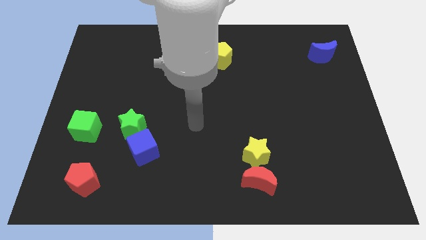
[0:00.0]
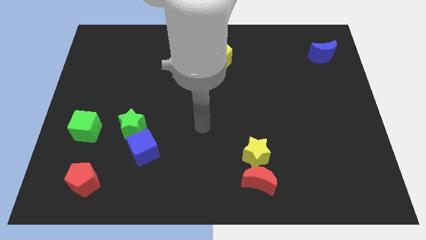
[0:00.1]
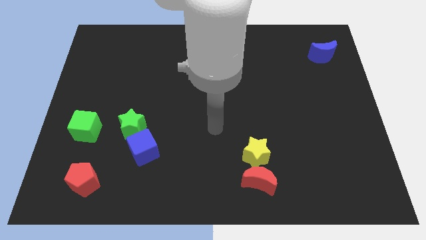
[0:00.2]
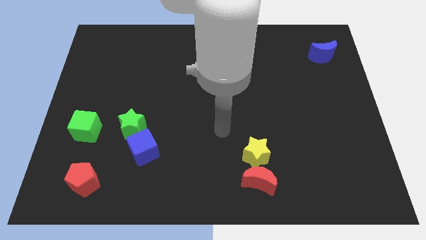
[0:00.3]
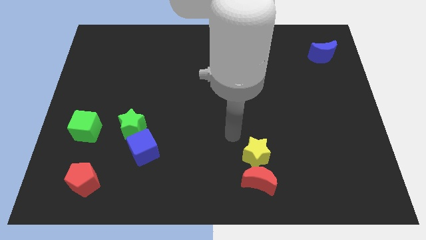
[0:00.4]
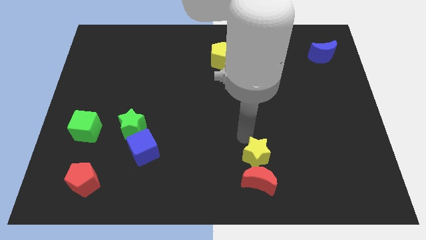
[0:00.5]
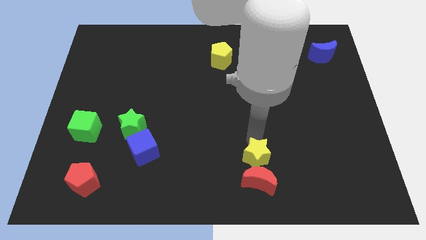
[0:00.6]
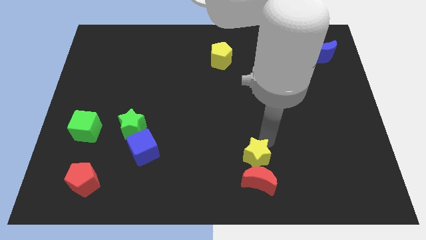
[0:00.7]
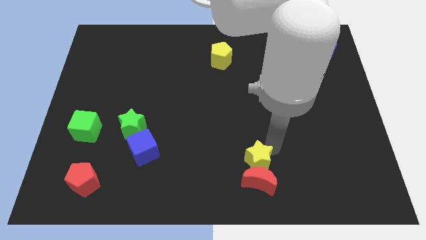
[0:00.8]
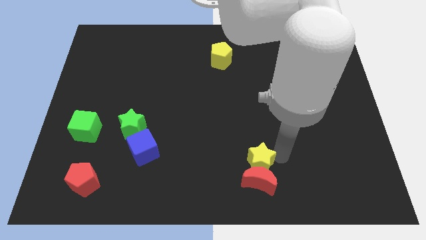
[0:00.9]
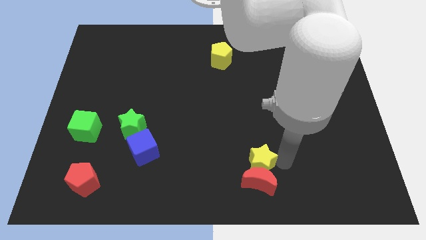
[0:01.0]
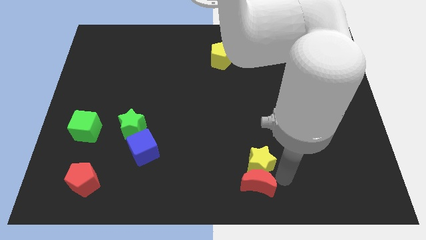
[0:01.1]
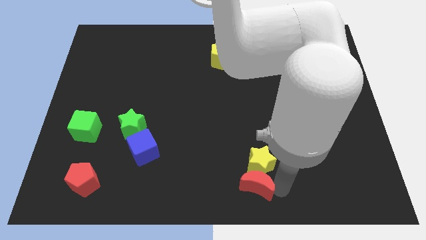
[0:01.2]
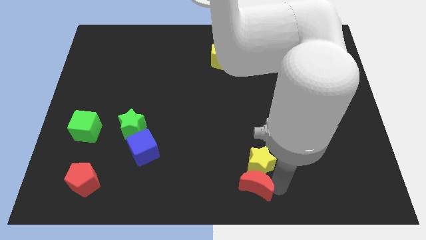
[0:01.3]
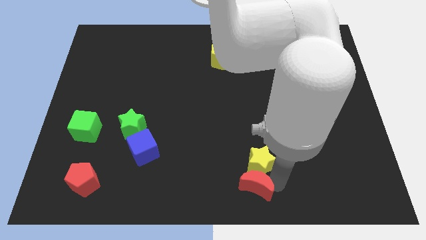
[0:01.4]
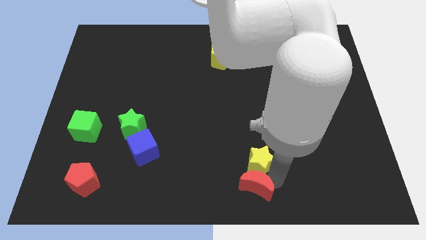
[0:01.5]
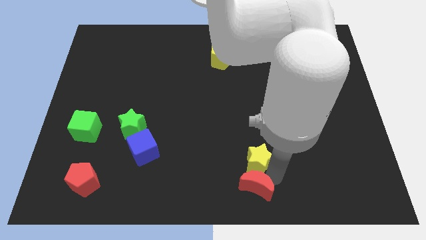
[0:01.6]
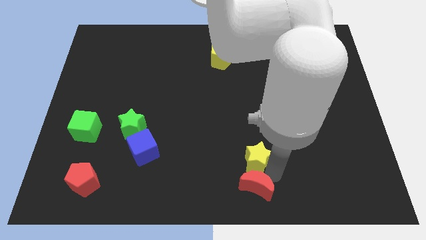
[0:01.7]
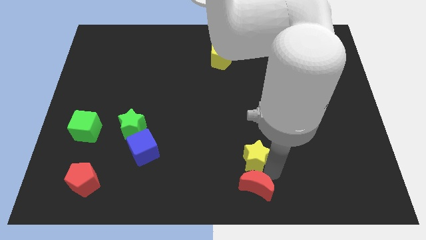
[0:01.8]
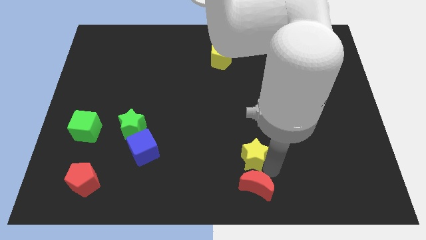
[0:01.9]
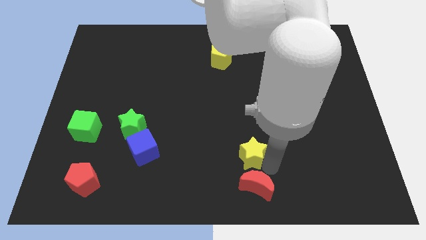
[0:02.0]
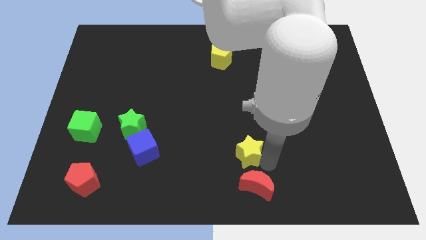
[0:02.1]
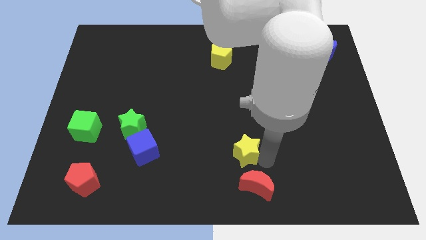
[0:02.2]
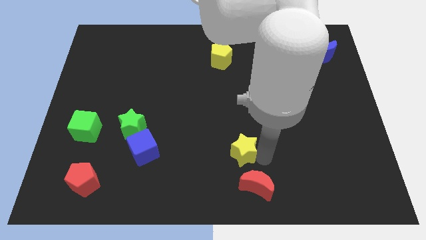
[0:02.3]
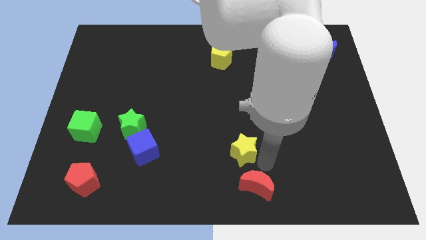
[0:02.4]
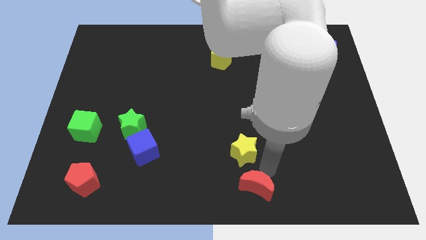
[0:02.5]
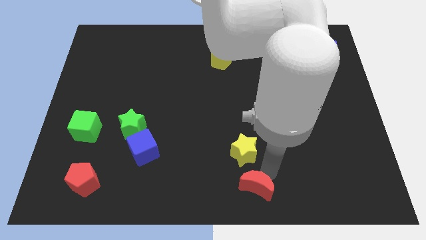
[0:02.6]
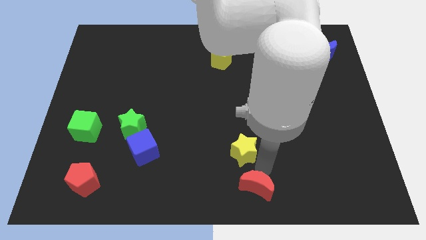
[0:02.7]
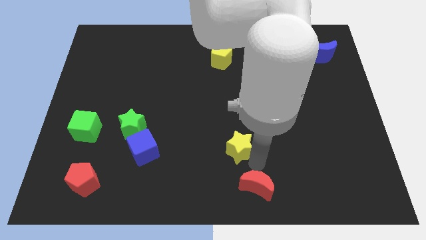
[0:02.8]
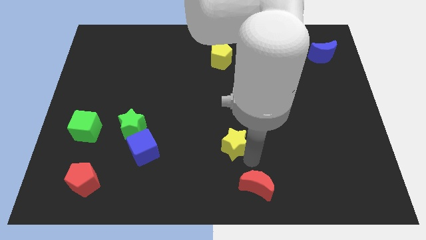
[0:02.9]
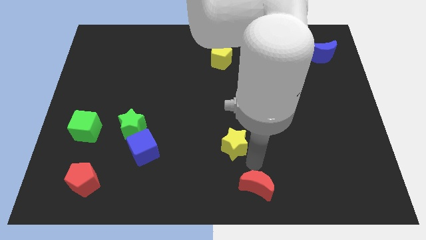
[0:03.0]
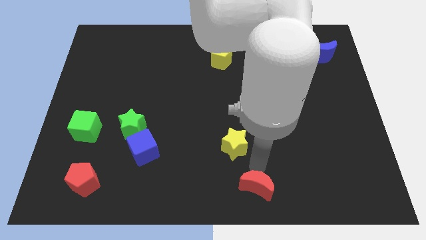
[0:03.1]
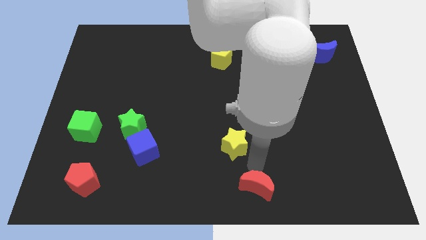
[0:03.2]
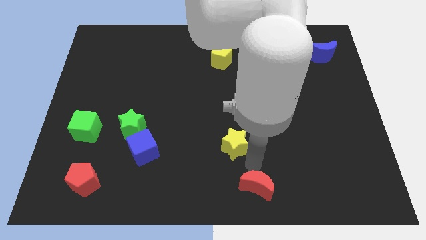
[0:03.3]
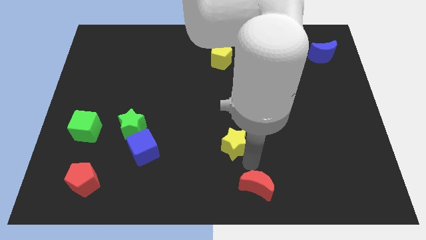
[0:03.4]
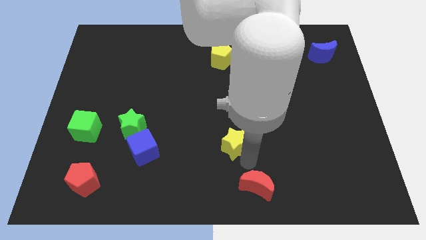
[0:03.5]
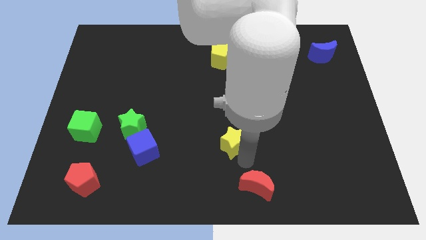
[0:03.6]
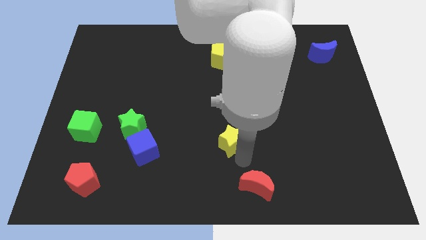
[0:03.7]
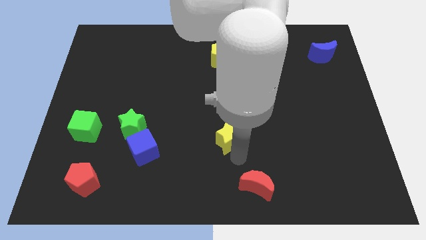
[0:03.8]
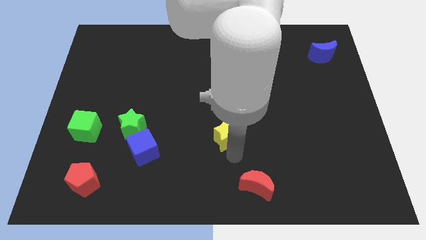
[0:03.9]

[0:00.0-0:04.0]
push the yellow star a bit diagonally up and to the left

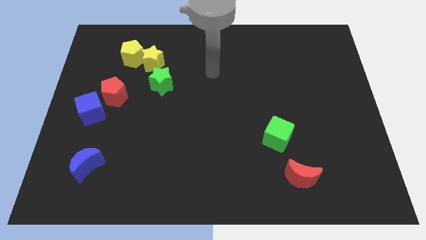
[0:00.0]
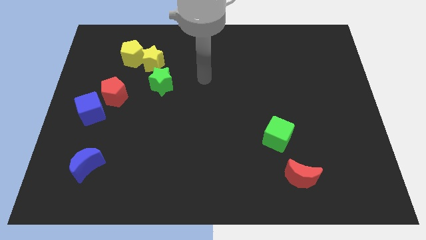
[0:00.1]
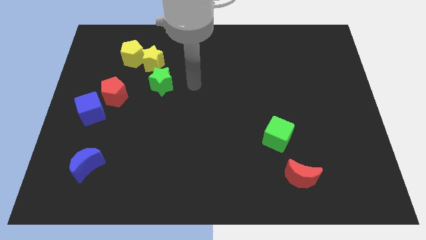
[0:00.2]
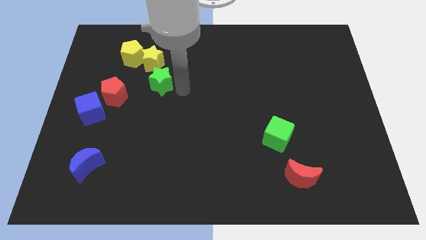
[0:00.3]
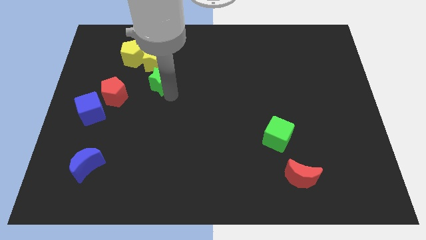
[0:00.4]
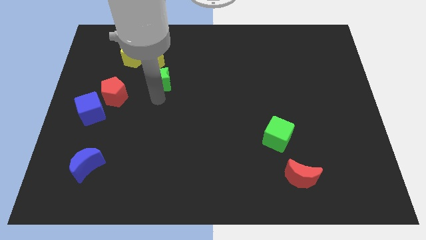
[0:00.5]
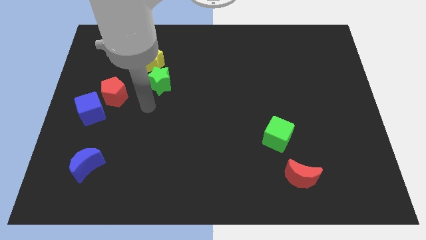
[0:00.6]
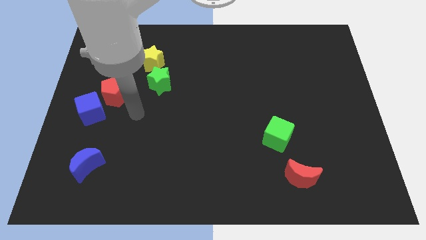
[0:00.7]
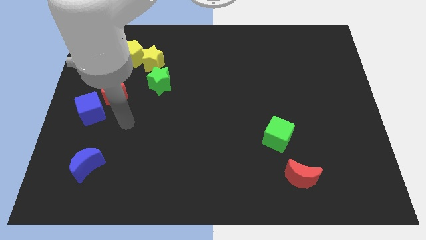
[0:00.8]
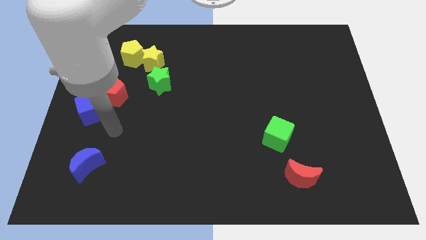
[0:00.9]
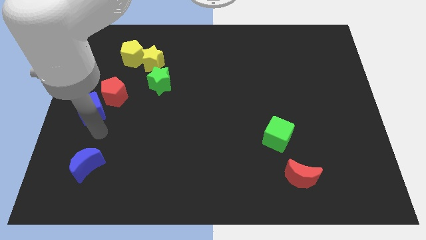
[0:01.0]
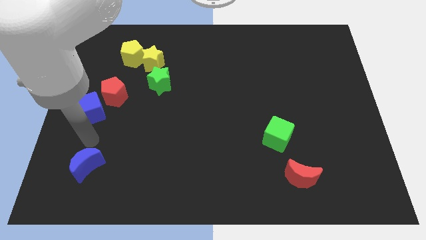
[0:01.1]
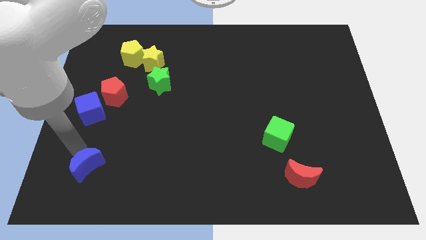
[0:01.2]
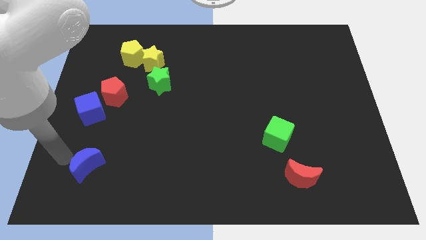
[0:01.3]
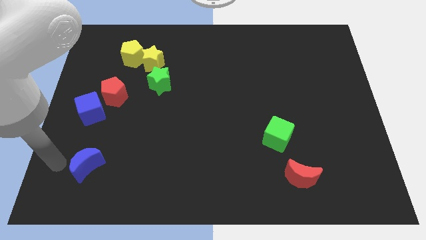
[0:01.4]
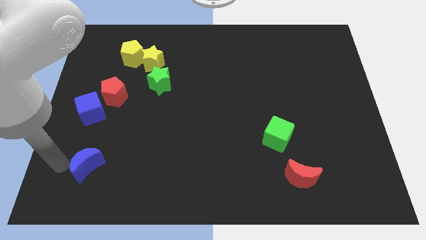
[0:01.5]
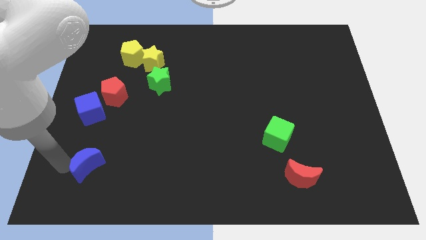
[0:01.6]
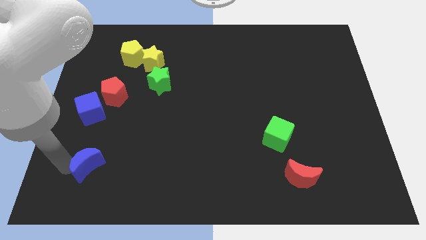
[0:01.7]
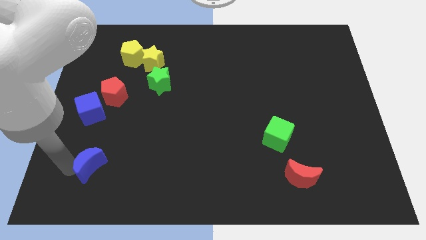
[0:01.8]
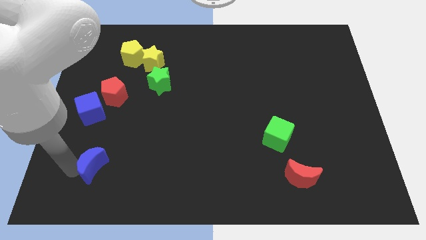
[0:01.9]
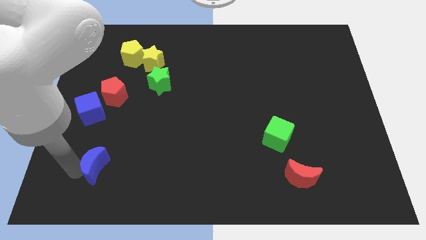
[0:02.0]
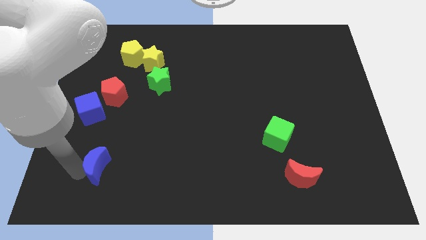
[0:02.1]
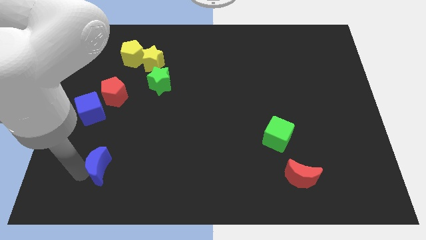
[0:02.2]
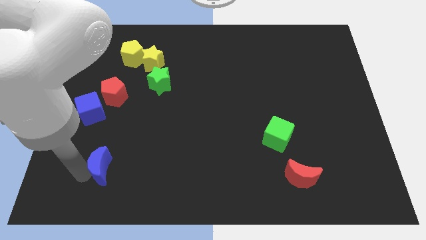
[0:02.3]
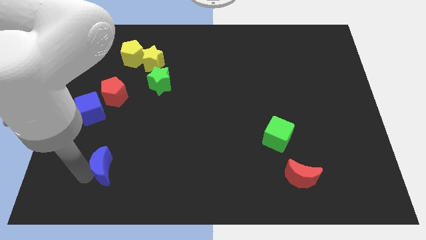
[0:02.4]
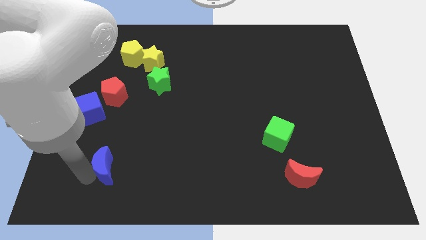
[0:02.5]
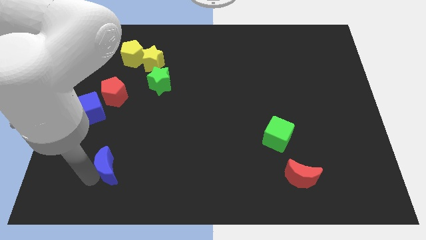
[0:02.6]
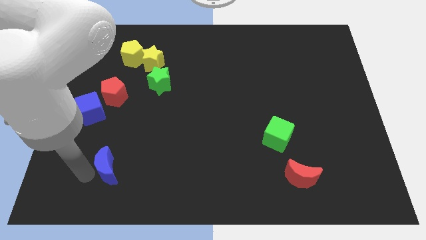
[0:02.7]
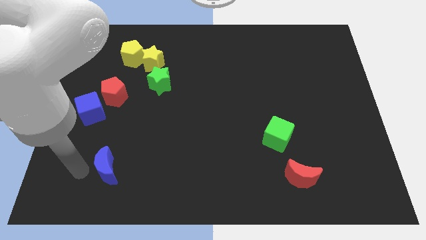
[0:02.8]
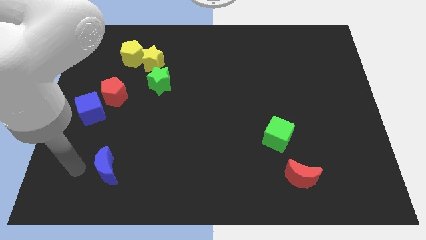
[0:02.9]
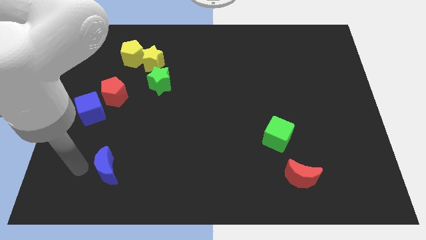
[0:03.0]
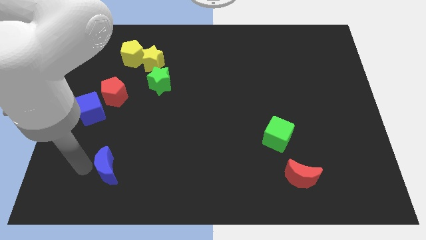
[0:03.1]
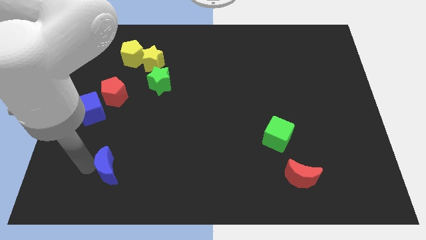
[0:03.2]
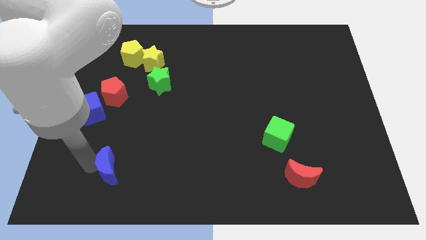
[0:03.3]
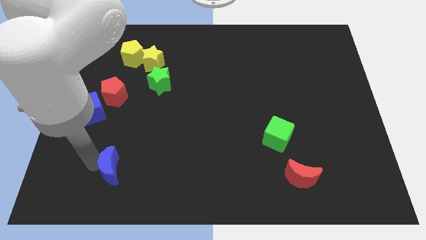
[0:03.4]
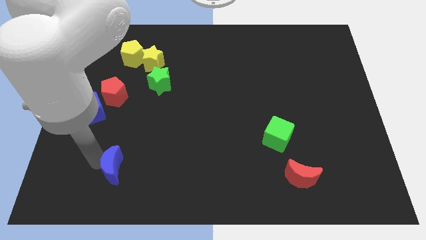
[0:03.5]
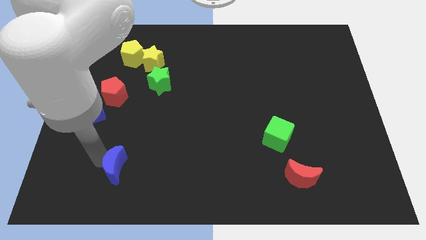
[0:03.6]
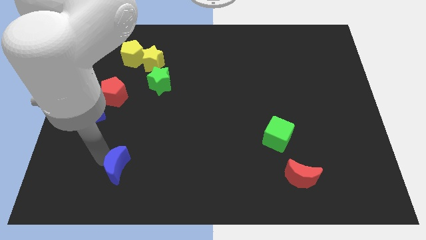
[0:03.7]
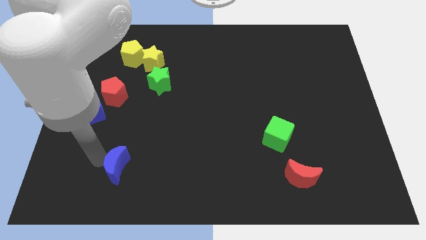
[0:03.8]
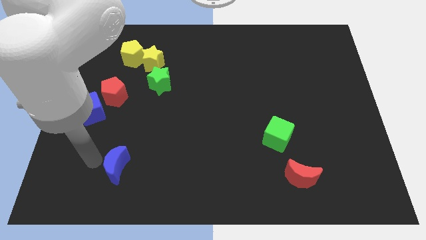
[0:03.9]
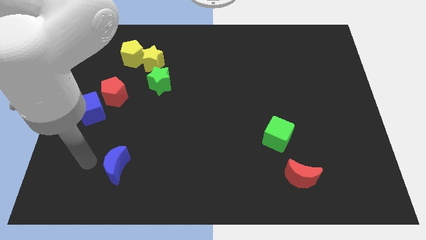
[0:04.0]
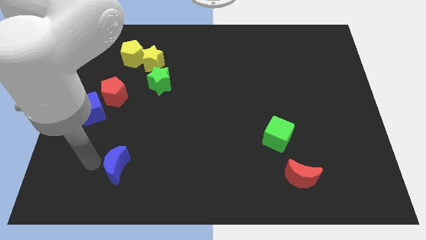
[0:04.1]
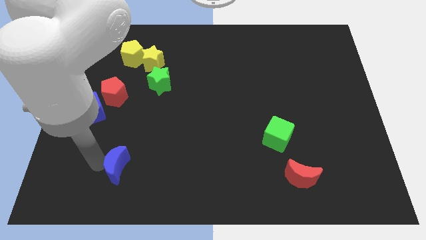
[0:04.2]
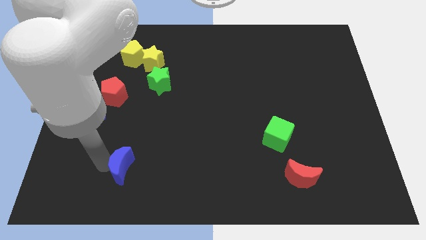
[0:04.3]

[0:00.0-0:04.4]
slide the blue moon slightly right
